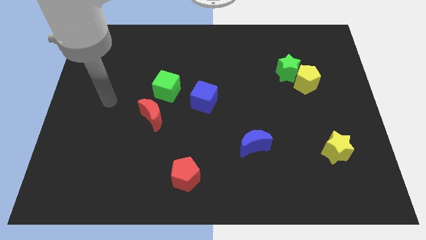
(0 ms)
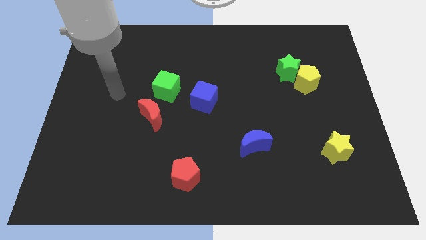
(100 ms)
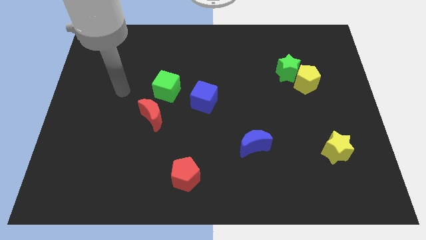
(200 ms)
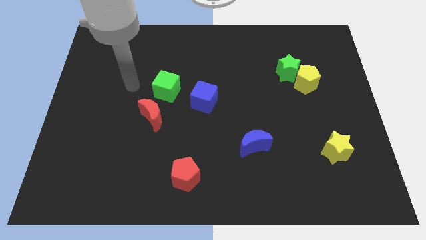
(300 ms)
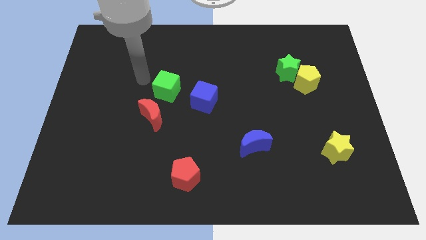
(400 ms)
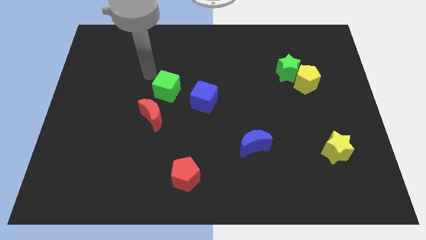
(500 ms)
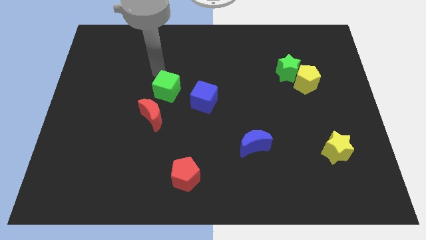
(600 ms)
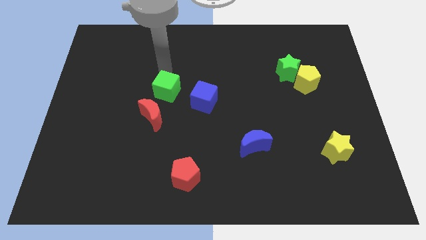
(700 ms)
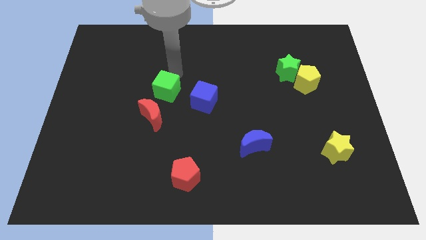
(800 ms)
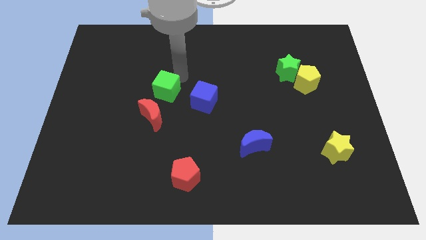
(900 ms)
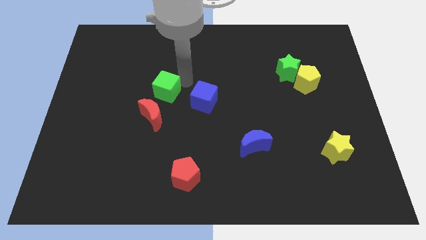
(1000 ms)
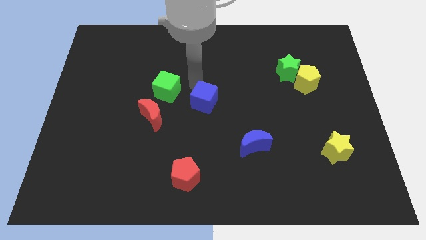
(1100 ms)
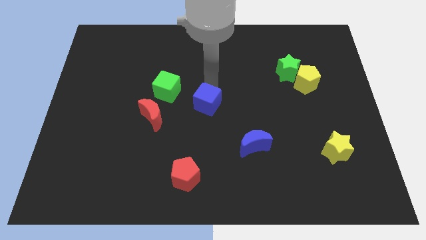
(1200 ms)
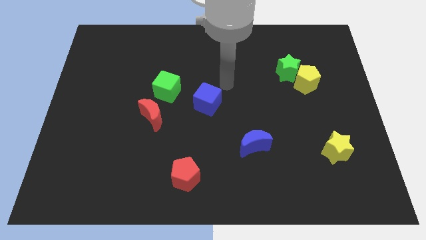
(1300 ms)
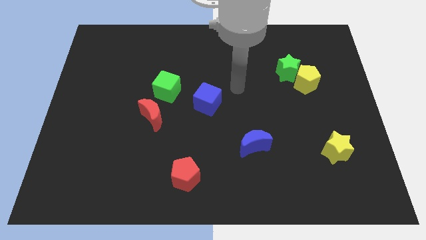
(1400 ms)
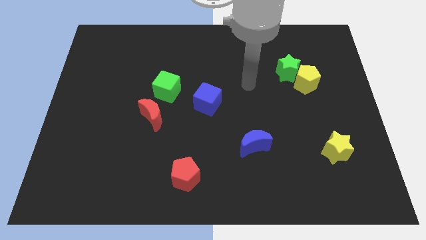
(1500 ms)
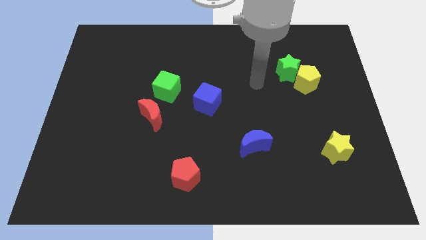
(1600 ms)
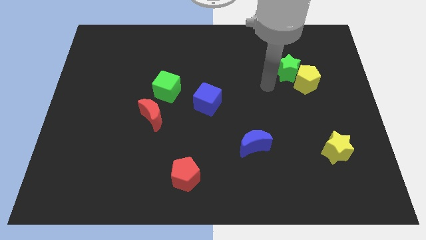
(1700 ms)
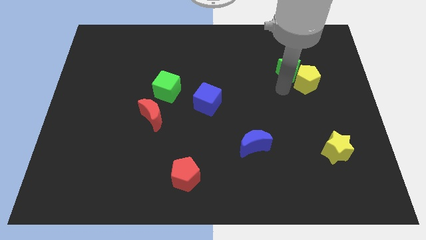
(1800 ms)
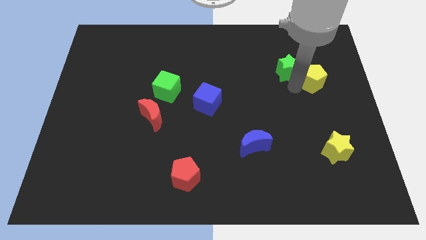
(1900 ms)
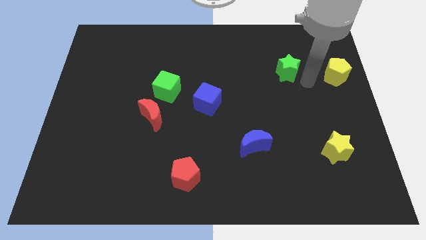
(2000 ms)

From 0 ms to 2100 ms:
move the green star away from the yellow pentagon

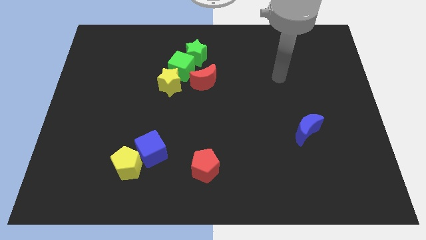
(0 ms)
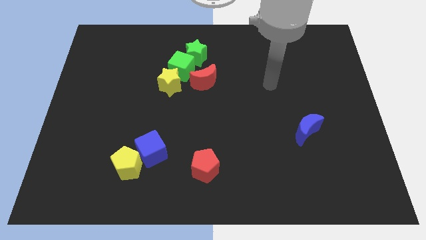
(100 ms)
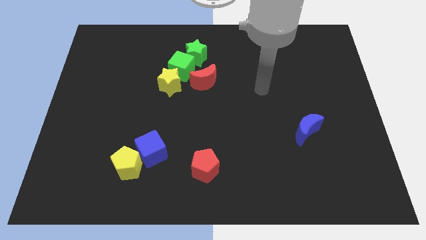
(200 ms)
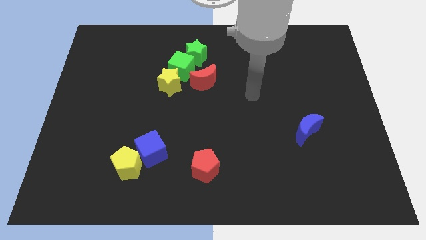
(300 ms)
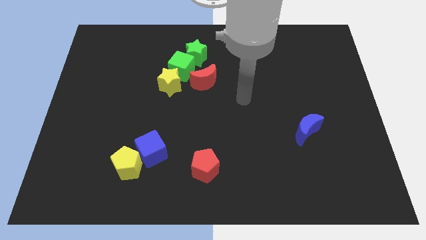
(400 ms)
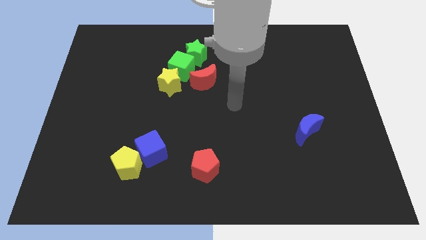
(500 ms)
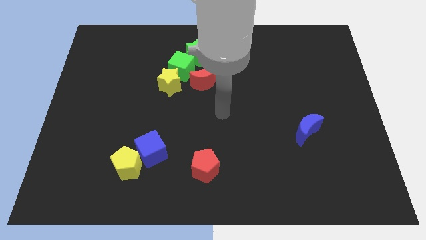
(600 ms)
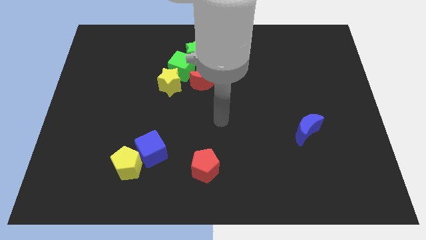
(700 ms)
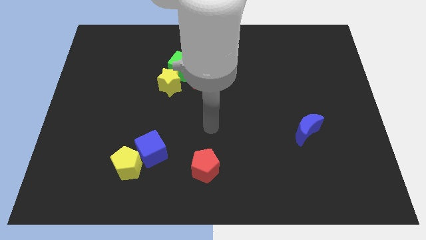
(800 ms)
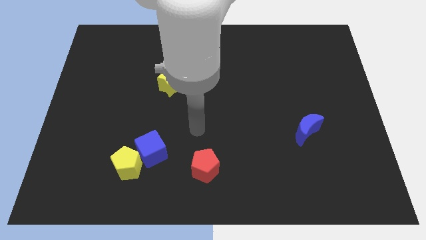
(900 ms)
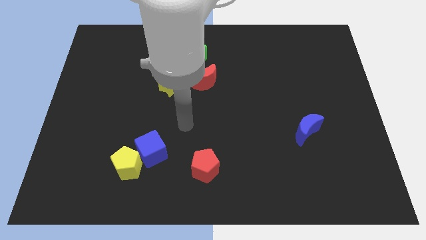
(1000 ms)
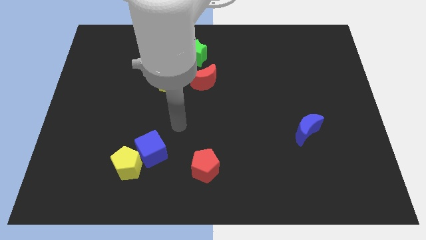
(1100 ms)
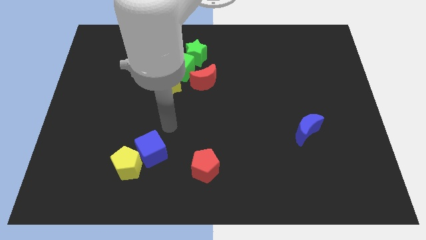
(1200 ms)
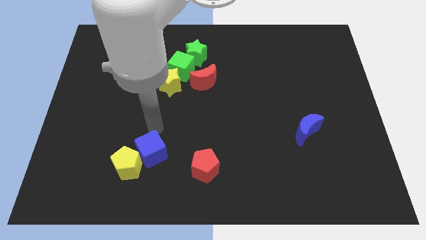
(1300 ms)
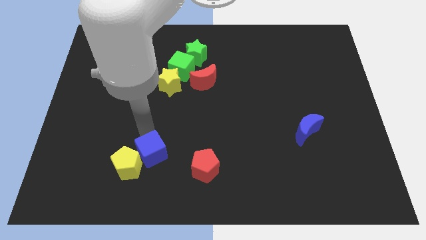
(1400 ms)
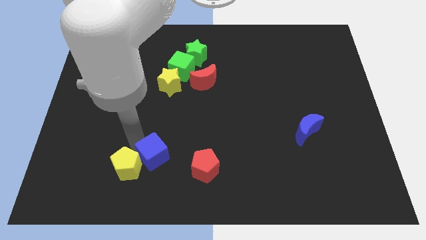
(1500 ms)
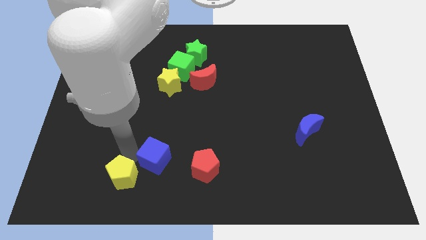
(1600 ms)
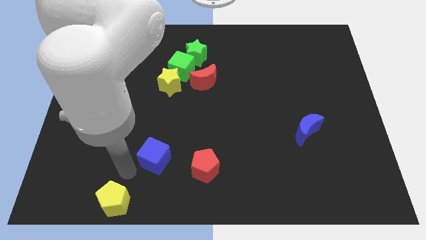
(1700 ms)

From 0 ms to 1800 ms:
separate the blue cube from the yellow pentagon

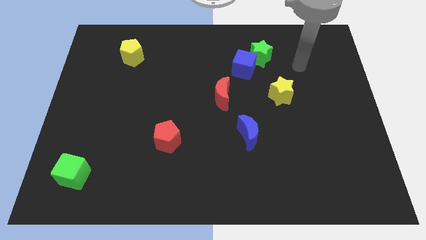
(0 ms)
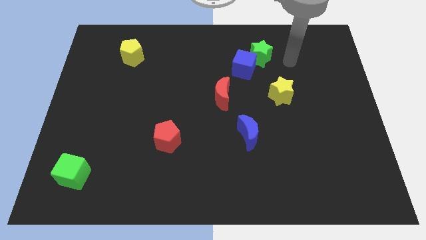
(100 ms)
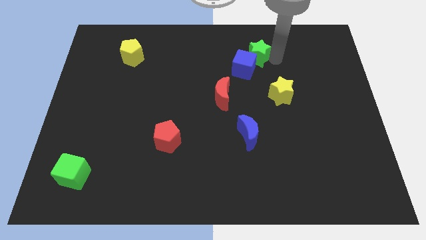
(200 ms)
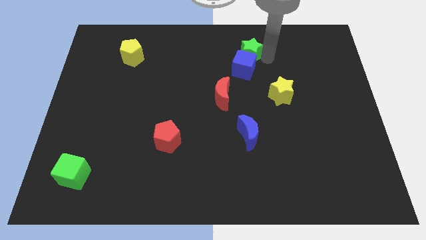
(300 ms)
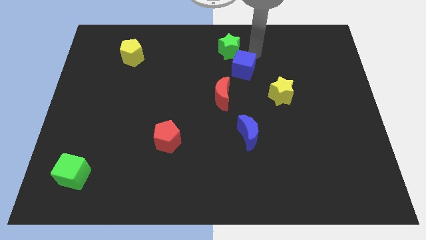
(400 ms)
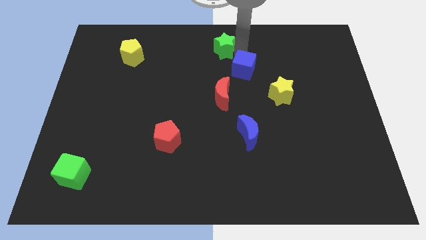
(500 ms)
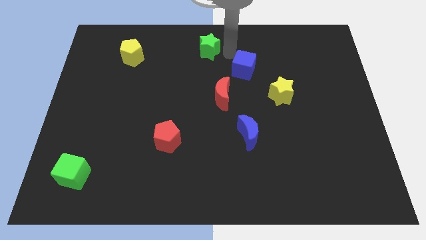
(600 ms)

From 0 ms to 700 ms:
pull the blue cube apart from the green star

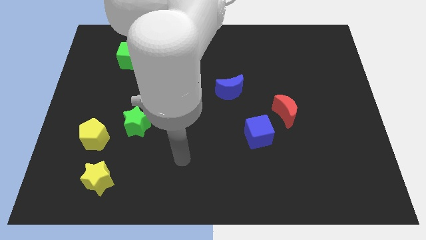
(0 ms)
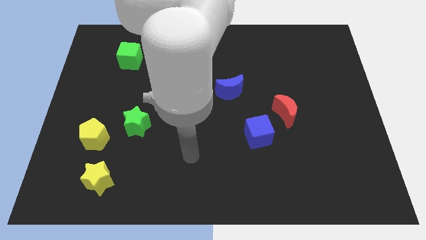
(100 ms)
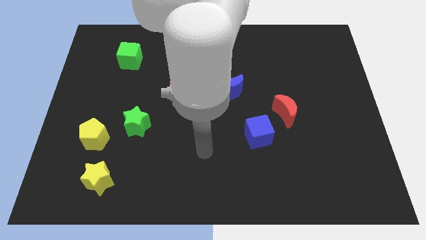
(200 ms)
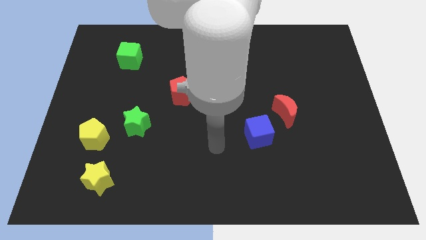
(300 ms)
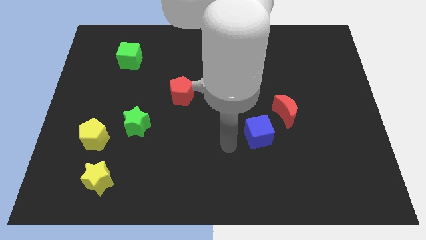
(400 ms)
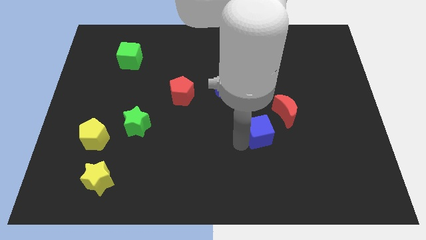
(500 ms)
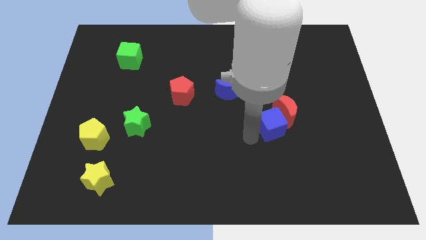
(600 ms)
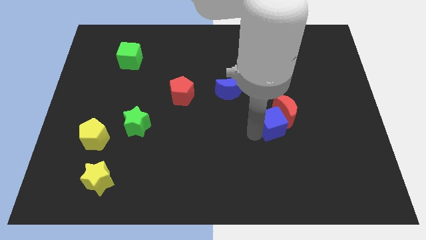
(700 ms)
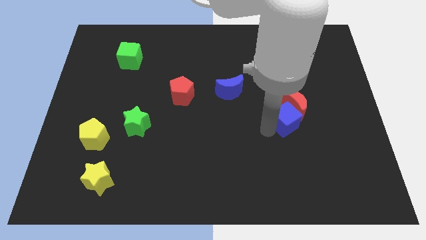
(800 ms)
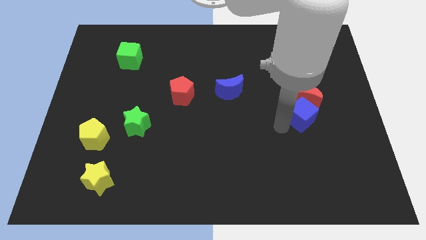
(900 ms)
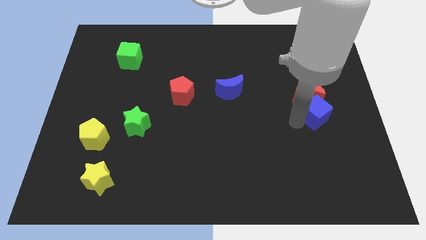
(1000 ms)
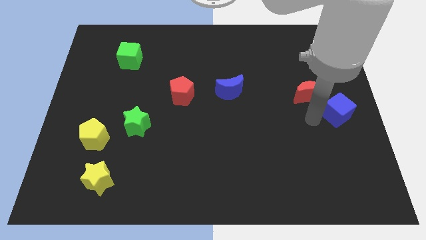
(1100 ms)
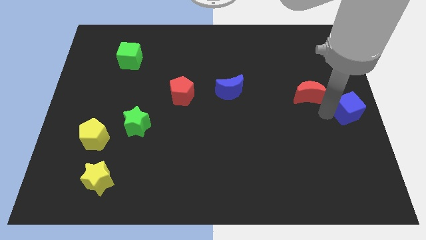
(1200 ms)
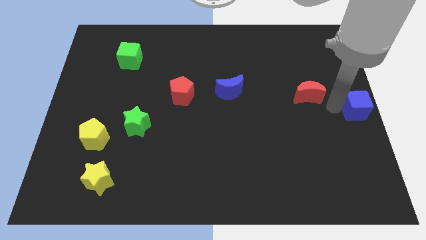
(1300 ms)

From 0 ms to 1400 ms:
move the red moon away from the blue cube

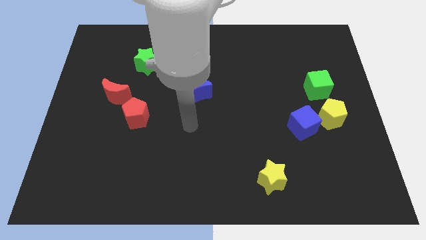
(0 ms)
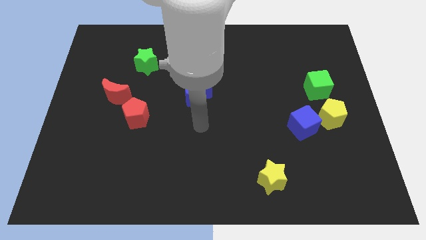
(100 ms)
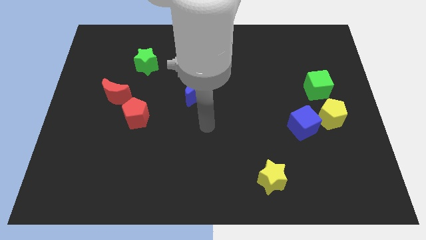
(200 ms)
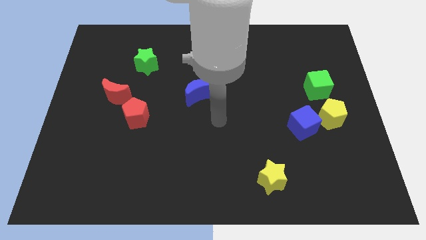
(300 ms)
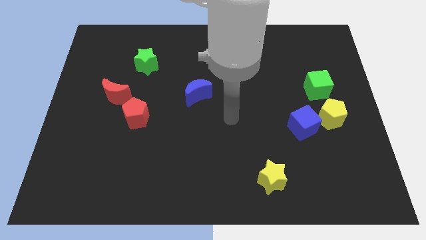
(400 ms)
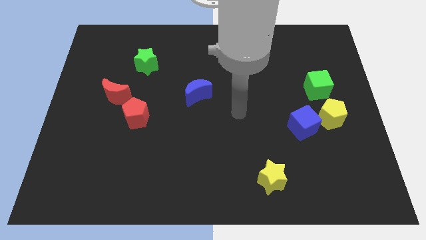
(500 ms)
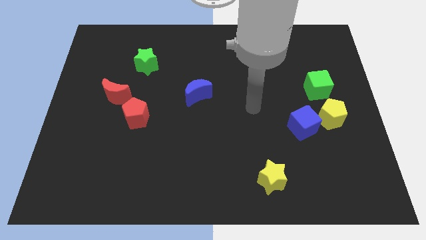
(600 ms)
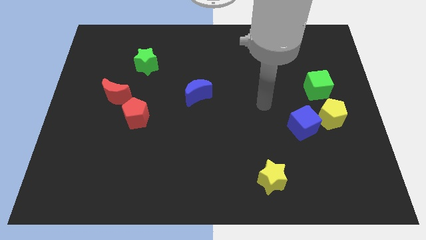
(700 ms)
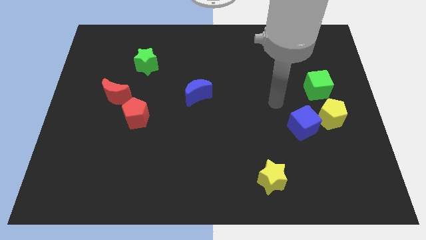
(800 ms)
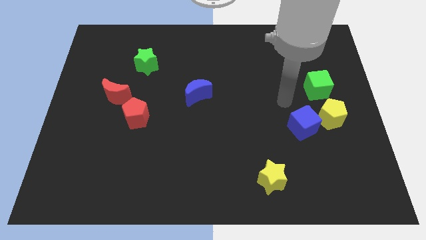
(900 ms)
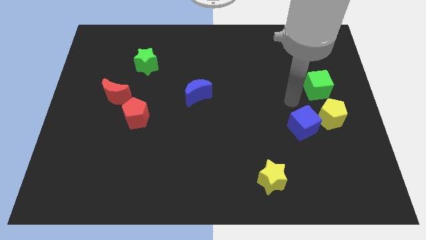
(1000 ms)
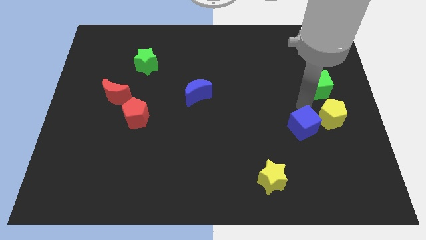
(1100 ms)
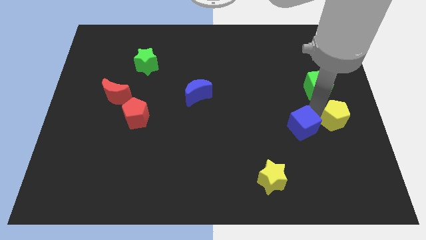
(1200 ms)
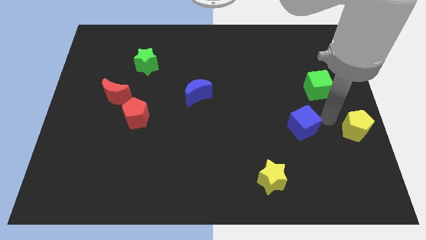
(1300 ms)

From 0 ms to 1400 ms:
pull the blue cube apart from the yellow pentagon

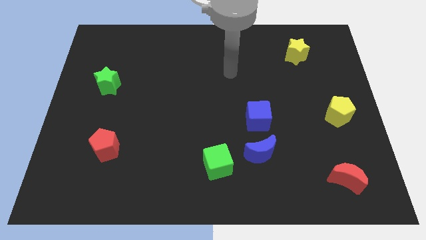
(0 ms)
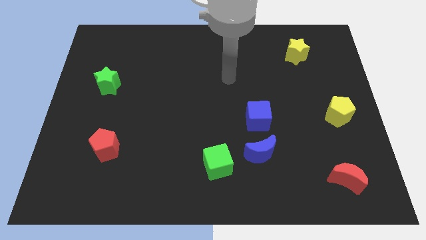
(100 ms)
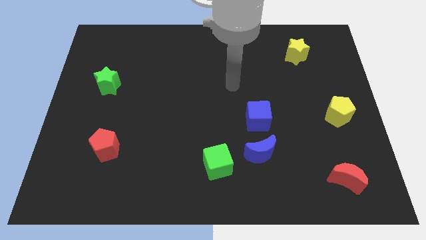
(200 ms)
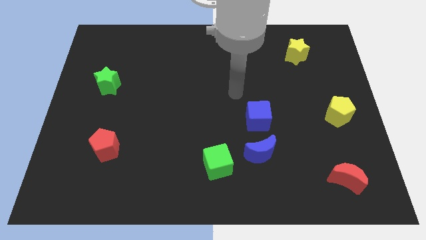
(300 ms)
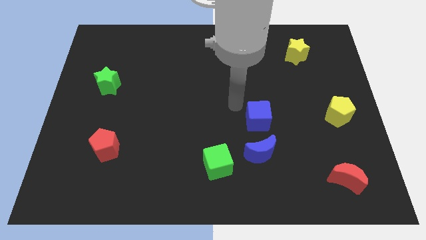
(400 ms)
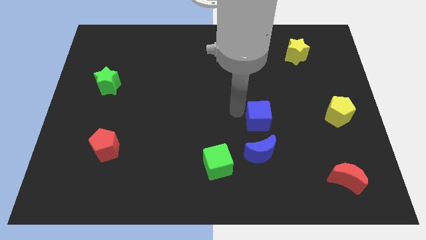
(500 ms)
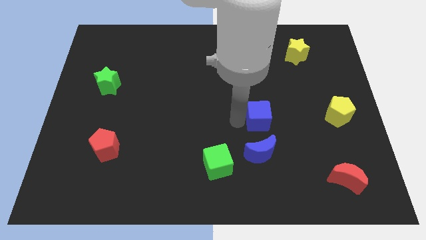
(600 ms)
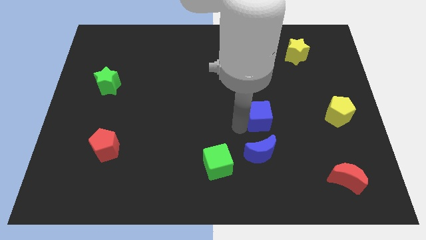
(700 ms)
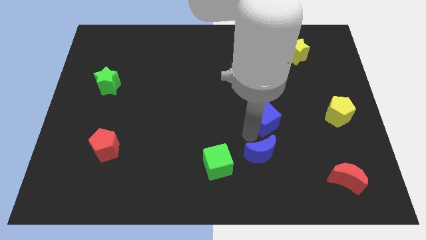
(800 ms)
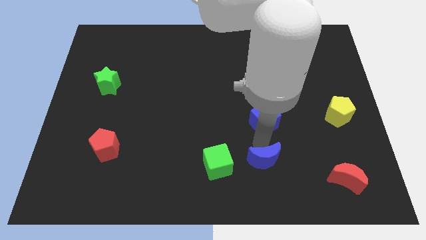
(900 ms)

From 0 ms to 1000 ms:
pull the blue cube apart from the blue moon

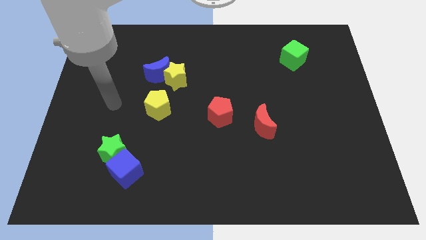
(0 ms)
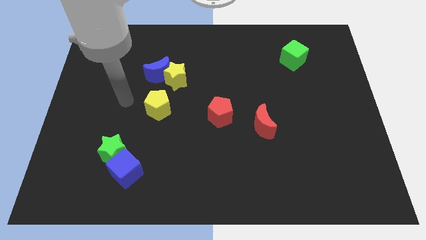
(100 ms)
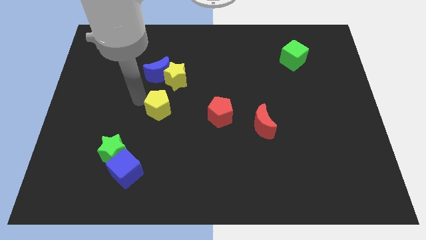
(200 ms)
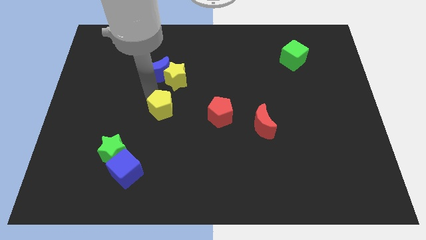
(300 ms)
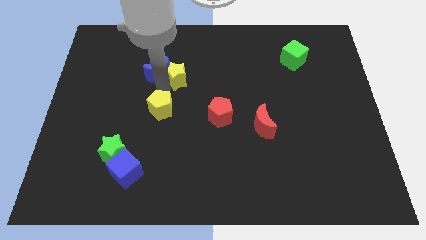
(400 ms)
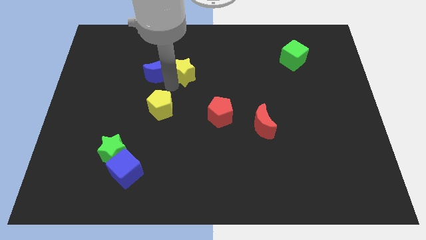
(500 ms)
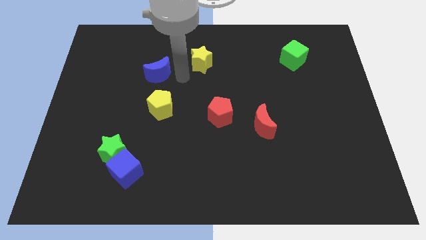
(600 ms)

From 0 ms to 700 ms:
move the blue moon away from the yellow star
